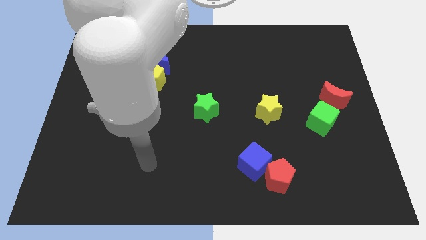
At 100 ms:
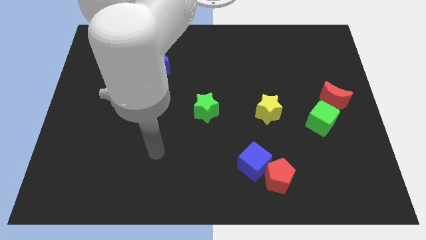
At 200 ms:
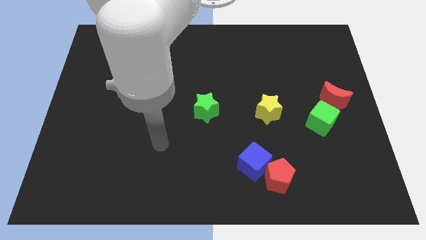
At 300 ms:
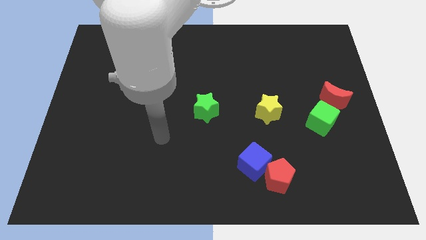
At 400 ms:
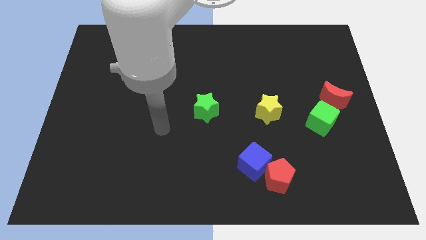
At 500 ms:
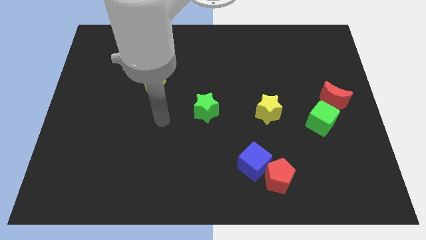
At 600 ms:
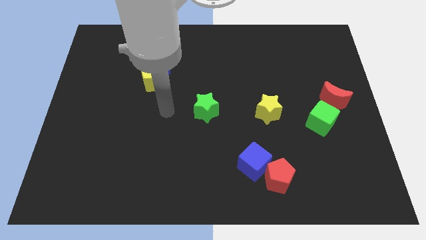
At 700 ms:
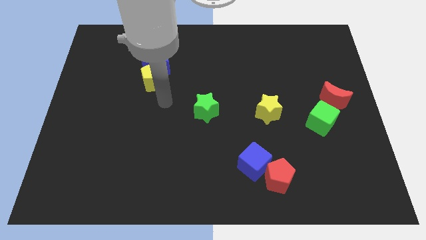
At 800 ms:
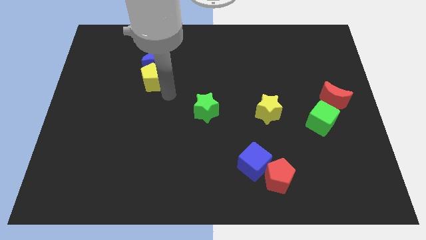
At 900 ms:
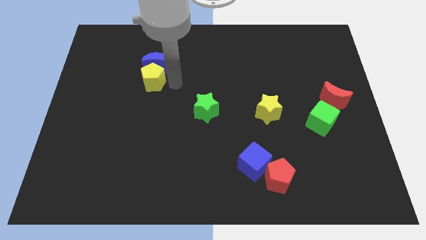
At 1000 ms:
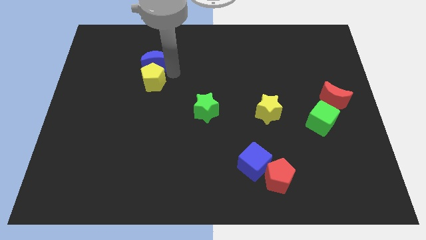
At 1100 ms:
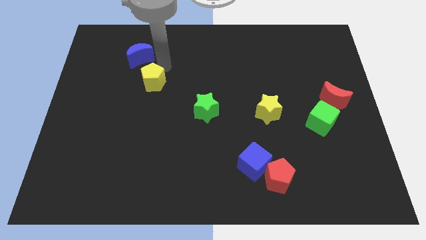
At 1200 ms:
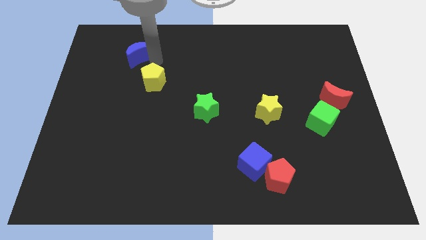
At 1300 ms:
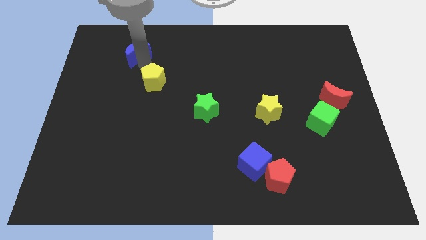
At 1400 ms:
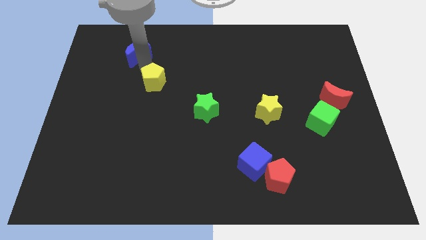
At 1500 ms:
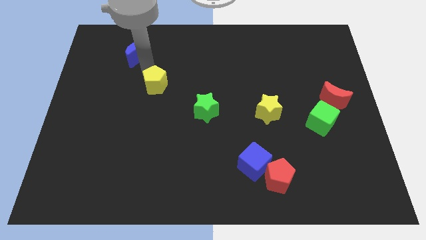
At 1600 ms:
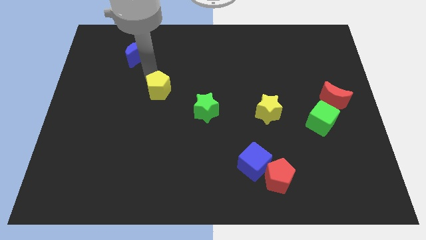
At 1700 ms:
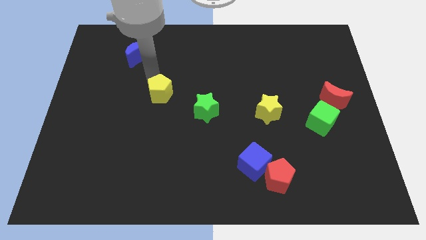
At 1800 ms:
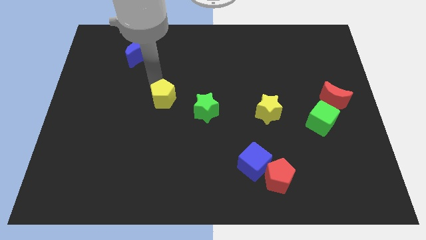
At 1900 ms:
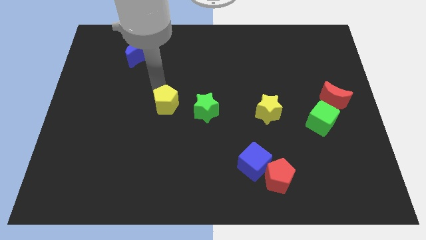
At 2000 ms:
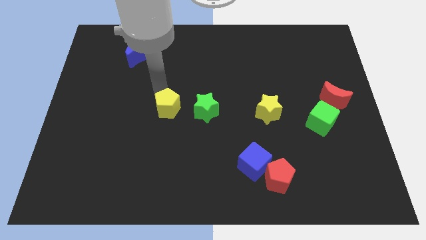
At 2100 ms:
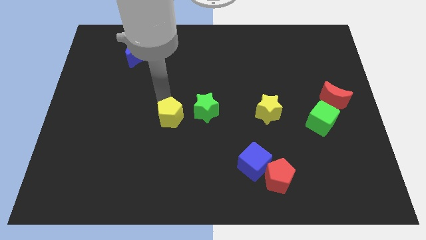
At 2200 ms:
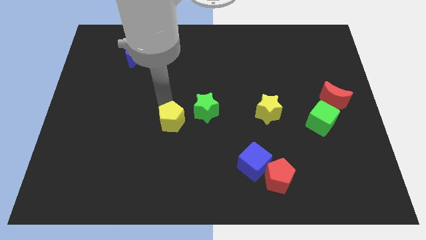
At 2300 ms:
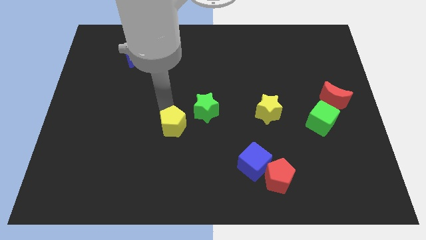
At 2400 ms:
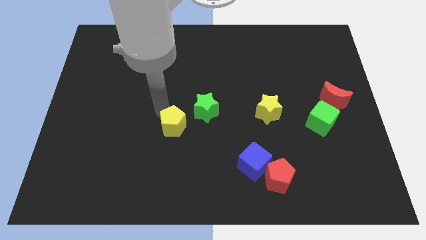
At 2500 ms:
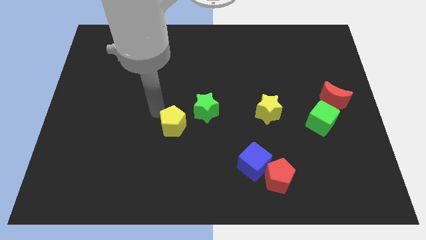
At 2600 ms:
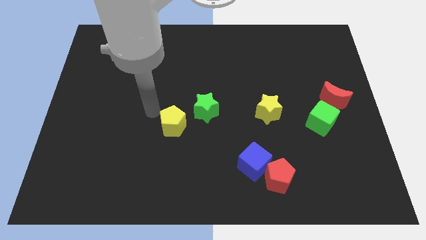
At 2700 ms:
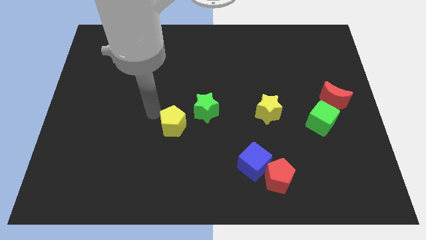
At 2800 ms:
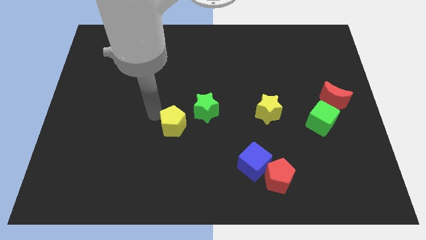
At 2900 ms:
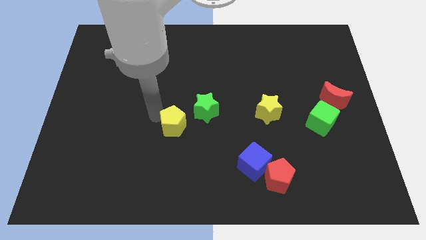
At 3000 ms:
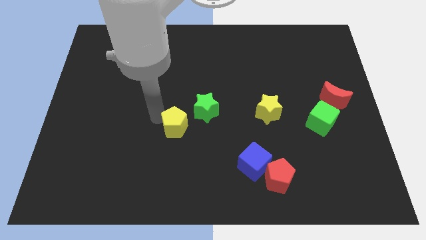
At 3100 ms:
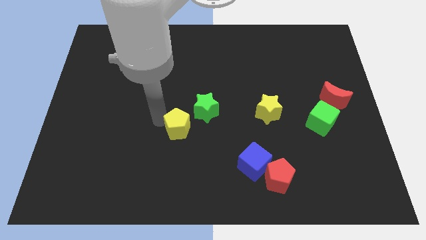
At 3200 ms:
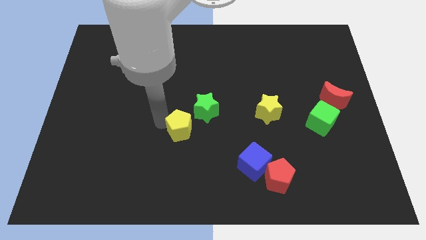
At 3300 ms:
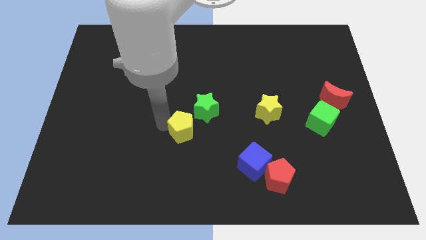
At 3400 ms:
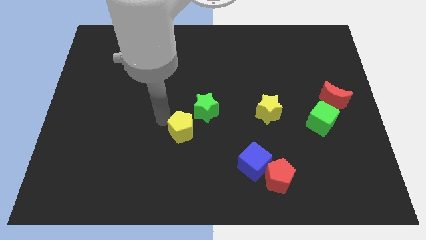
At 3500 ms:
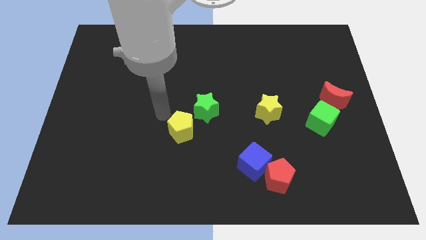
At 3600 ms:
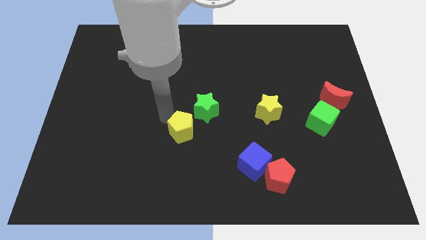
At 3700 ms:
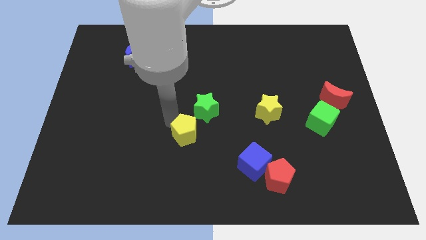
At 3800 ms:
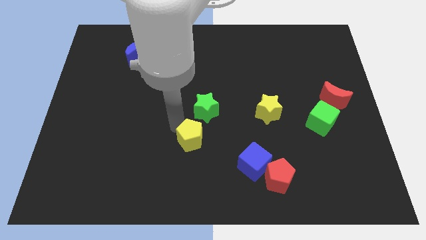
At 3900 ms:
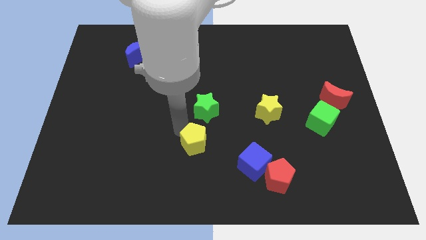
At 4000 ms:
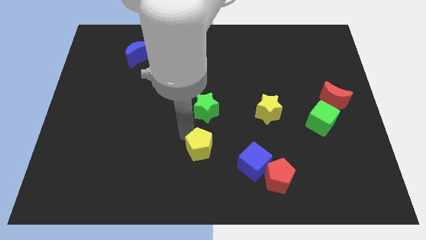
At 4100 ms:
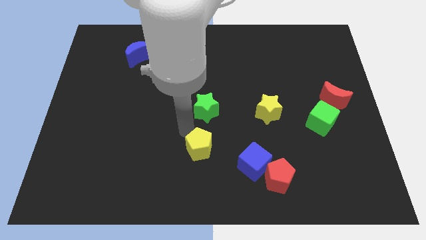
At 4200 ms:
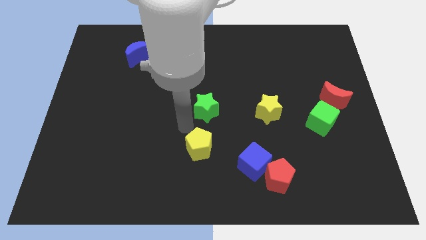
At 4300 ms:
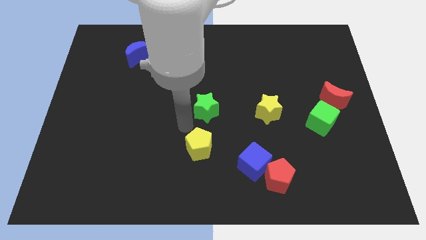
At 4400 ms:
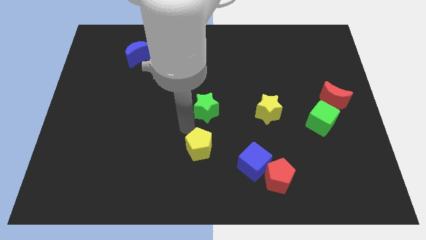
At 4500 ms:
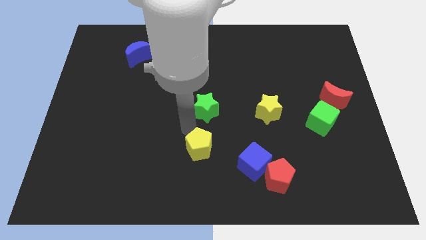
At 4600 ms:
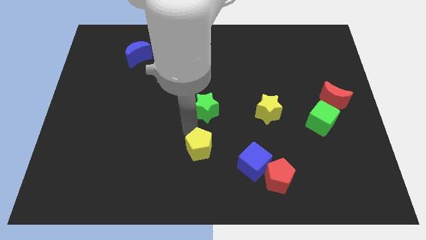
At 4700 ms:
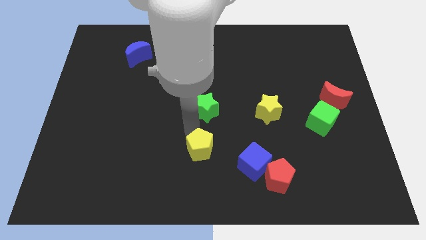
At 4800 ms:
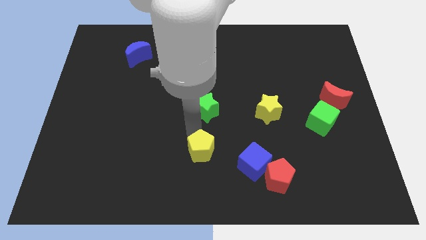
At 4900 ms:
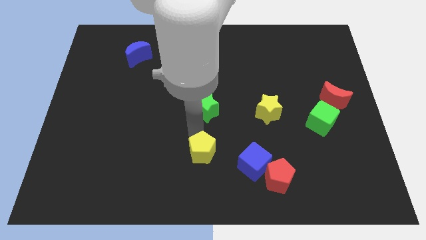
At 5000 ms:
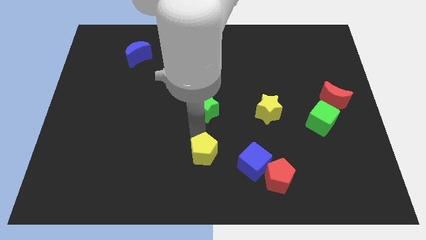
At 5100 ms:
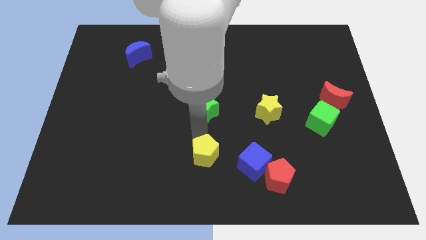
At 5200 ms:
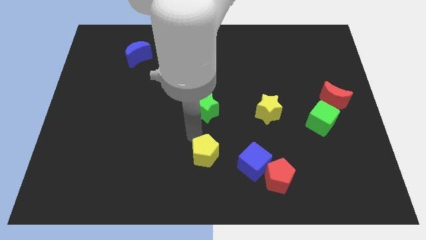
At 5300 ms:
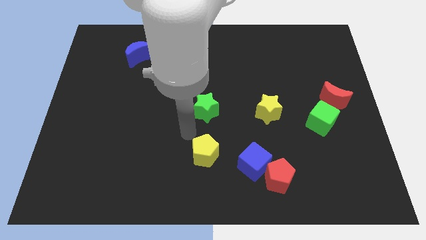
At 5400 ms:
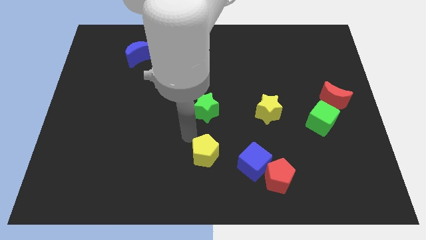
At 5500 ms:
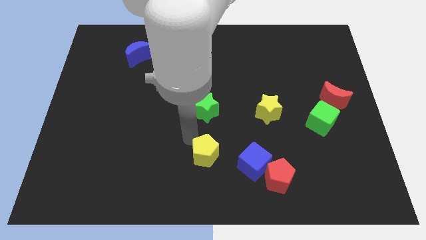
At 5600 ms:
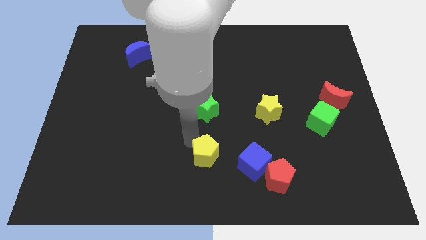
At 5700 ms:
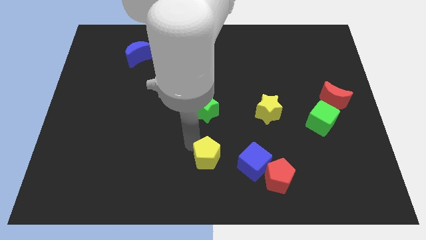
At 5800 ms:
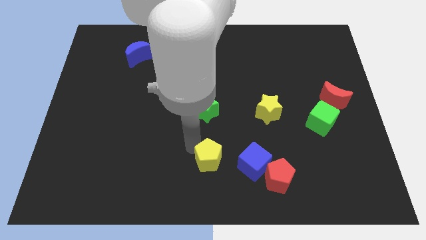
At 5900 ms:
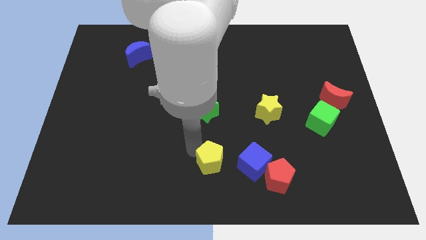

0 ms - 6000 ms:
move the yellow pentagon just left of the red pentagon

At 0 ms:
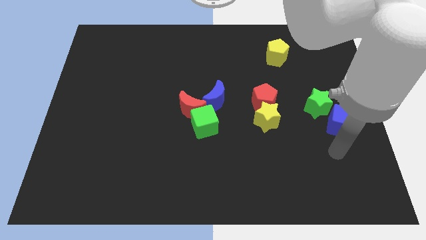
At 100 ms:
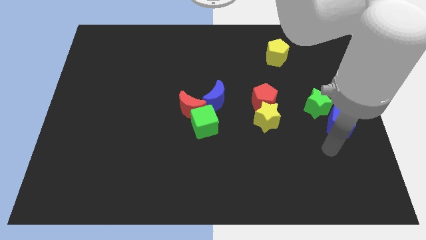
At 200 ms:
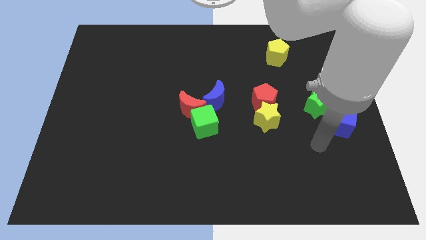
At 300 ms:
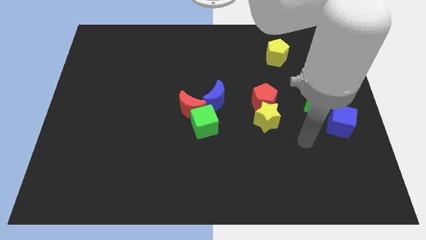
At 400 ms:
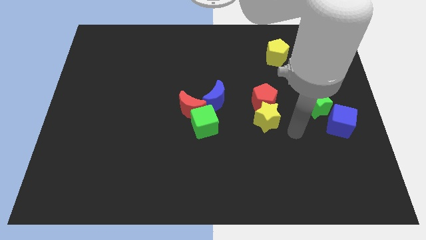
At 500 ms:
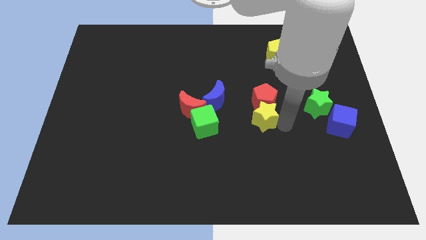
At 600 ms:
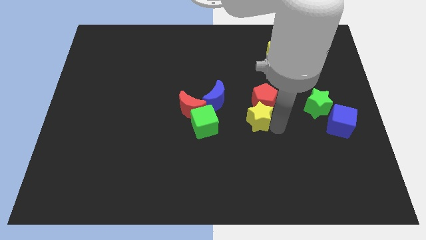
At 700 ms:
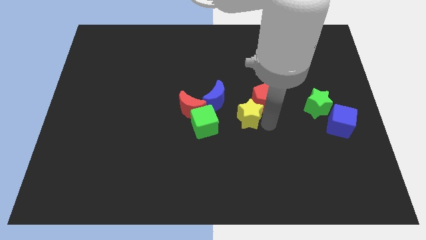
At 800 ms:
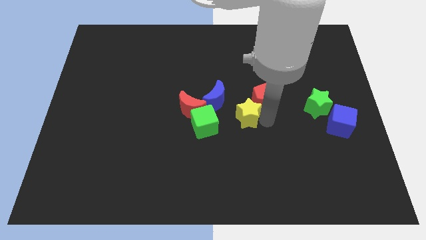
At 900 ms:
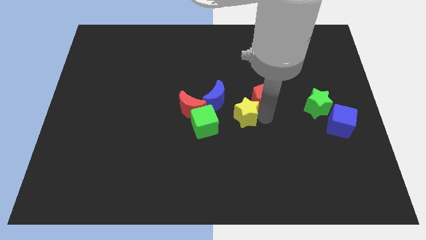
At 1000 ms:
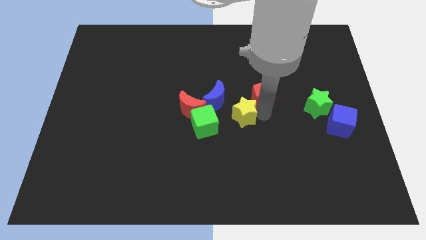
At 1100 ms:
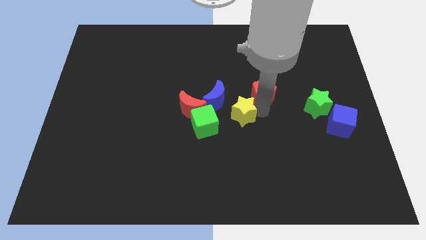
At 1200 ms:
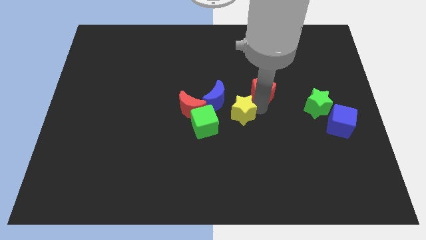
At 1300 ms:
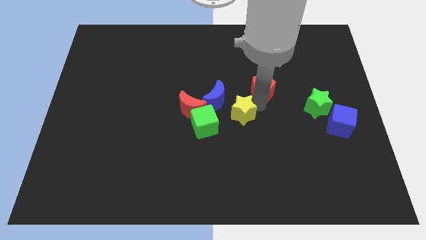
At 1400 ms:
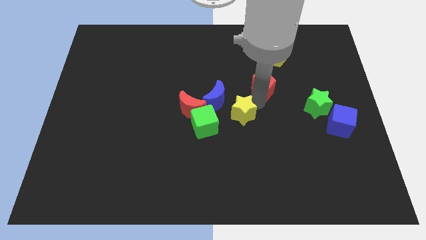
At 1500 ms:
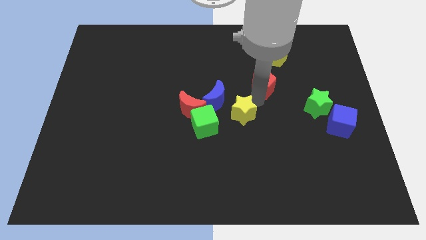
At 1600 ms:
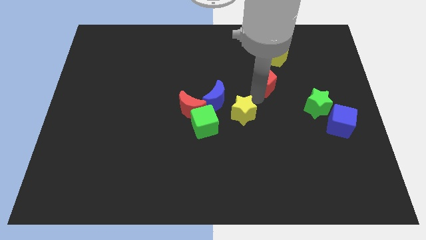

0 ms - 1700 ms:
move the red pentagon to the bottom left side of the yellow pentagon
